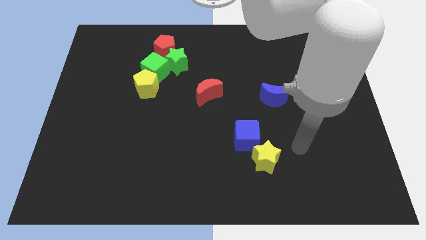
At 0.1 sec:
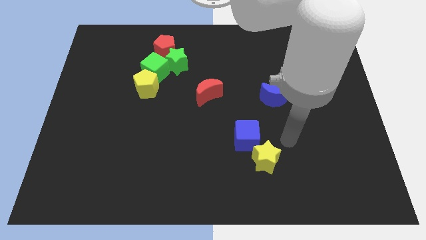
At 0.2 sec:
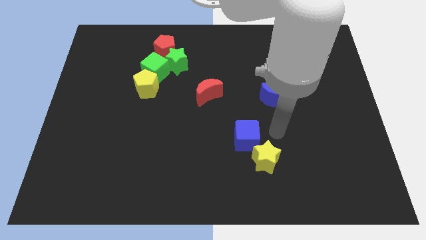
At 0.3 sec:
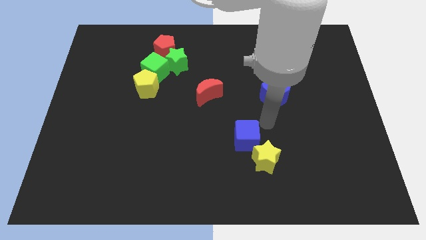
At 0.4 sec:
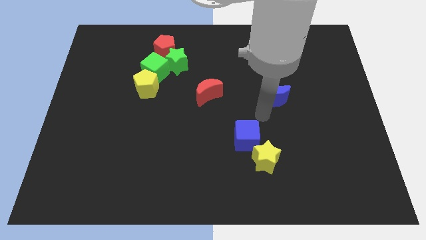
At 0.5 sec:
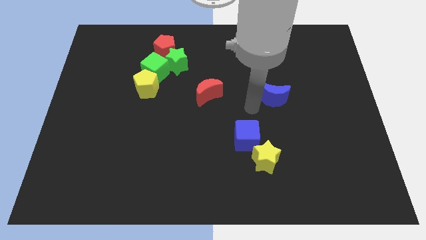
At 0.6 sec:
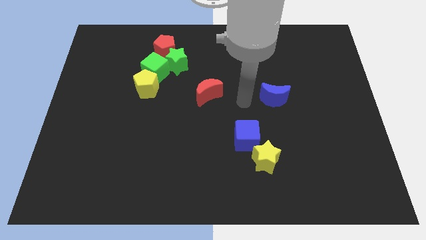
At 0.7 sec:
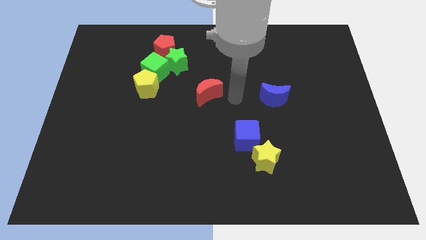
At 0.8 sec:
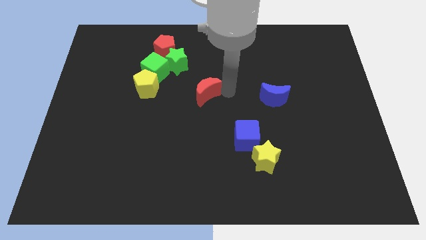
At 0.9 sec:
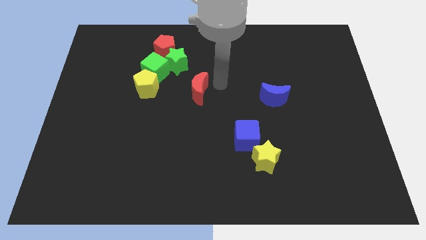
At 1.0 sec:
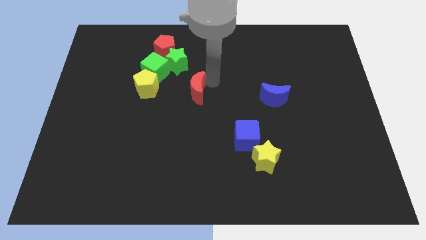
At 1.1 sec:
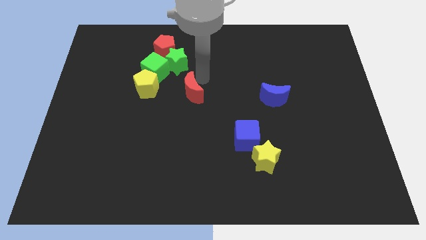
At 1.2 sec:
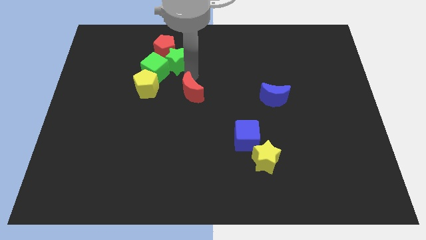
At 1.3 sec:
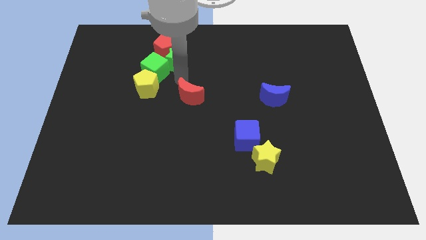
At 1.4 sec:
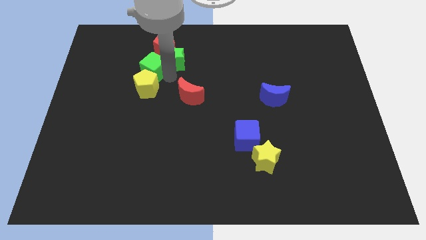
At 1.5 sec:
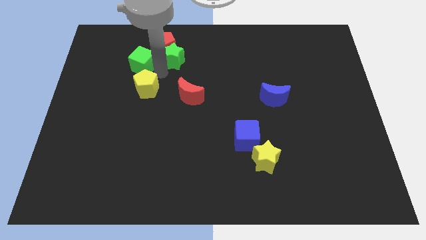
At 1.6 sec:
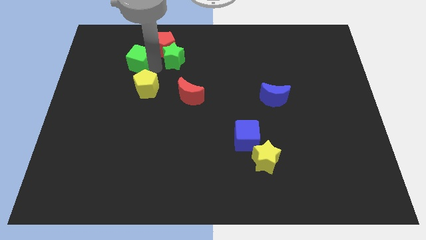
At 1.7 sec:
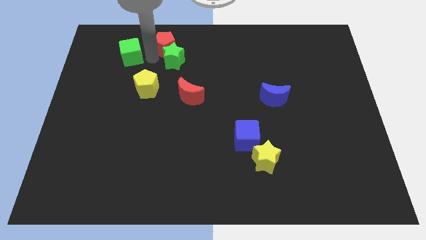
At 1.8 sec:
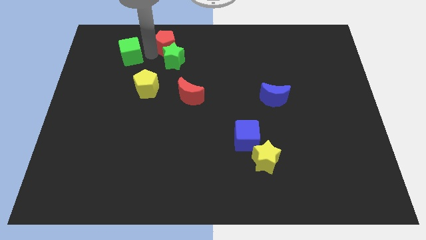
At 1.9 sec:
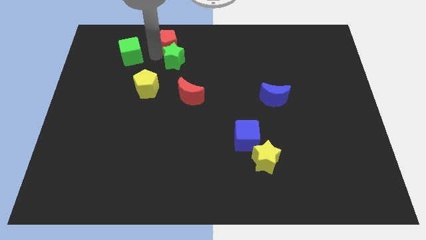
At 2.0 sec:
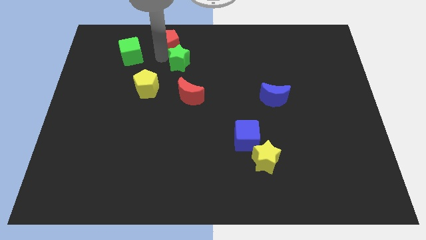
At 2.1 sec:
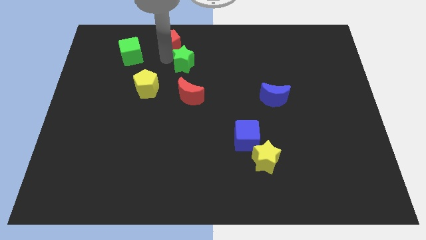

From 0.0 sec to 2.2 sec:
separate the green star from the green cube and red pentagon

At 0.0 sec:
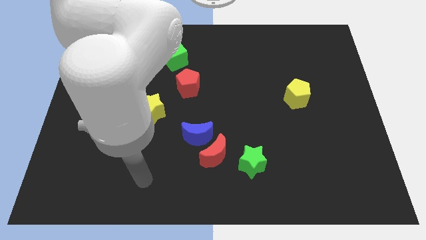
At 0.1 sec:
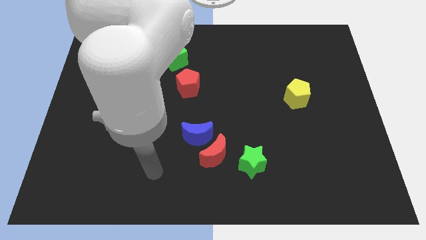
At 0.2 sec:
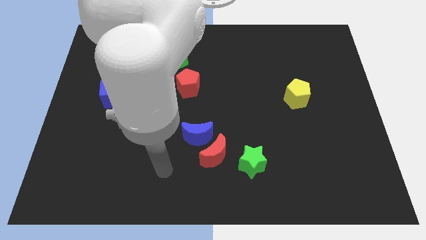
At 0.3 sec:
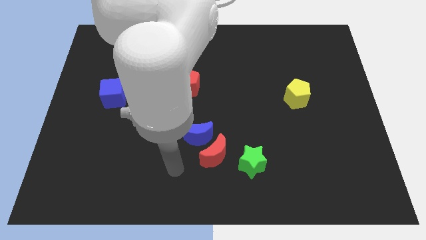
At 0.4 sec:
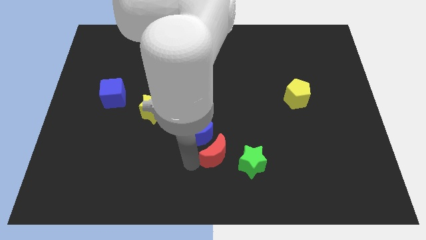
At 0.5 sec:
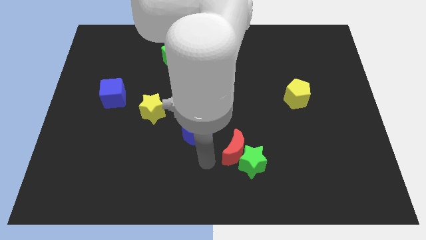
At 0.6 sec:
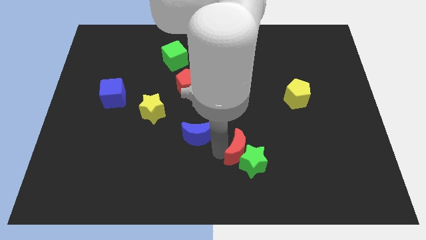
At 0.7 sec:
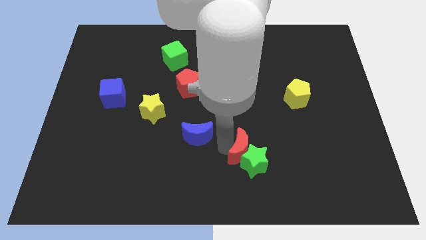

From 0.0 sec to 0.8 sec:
separate the blue moon from the red moon

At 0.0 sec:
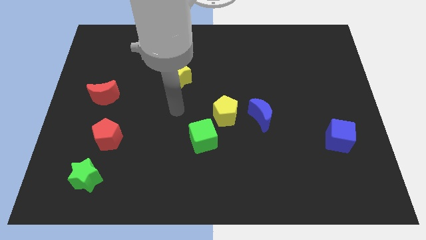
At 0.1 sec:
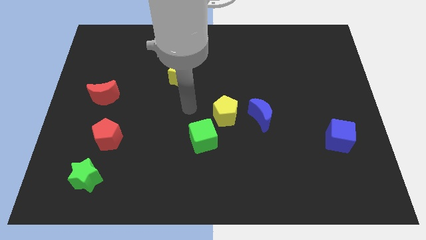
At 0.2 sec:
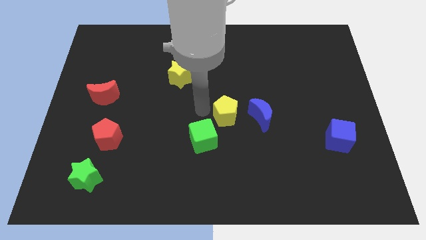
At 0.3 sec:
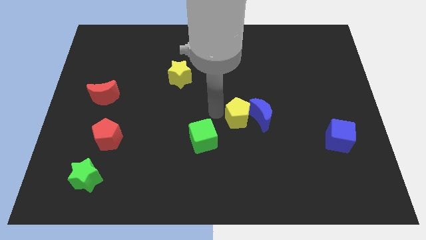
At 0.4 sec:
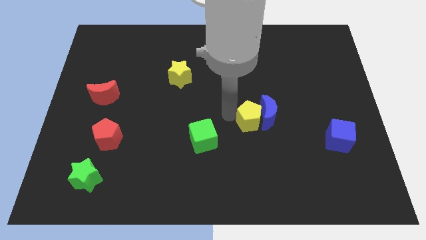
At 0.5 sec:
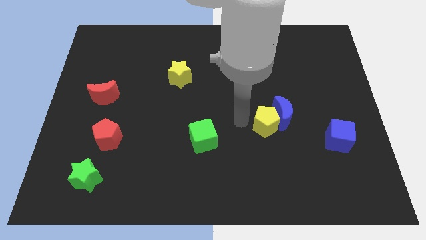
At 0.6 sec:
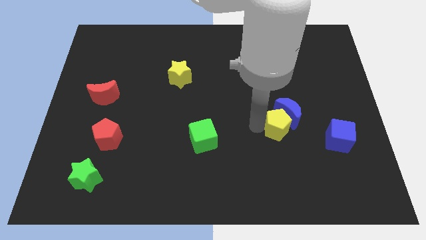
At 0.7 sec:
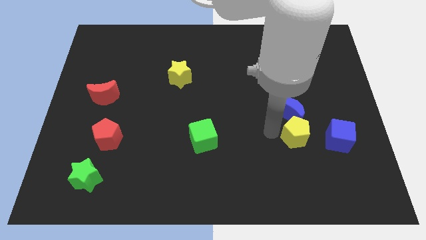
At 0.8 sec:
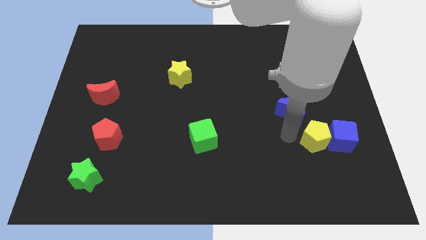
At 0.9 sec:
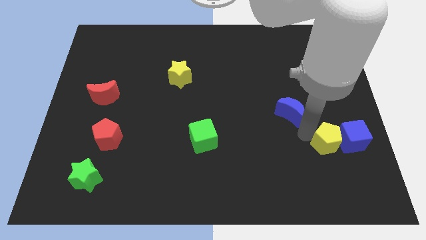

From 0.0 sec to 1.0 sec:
move the blue moon away from the yellow pentagon

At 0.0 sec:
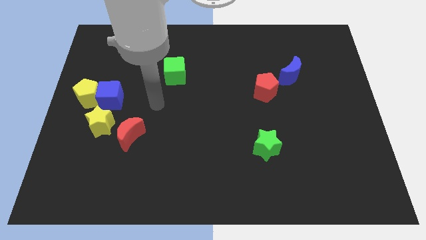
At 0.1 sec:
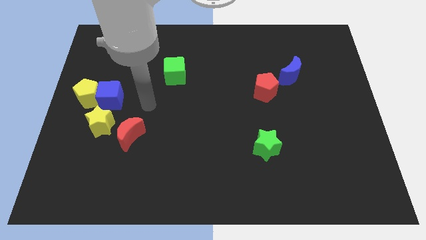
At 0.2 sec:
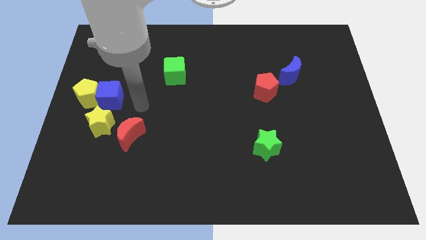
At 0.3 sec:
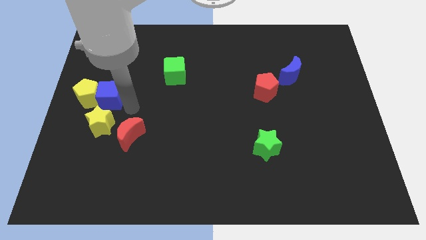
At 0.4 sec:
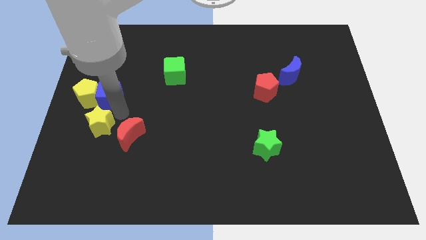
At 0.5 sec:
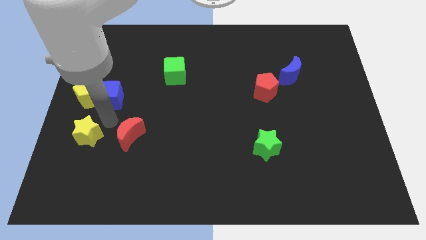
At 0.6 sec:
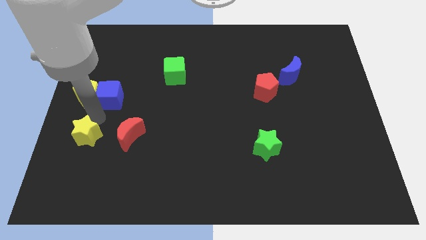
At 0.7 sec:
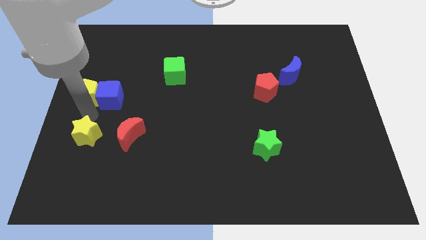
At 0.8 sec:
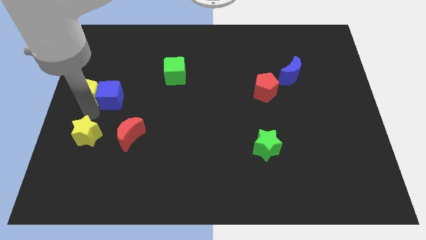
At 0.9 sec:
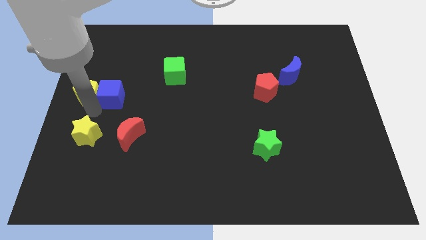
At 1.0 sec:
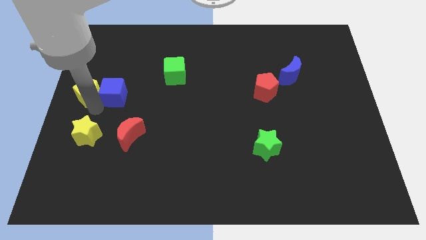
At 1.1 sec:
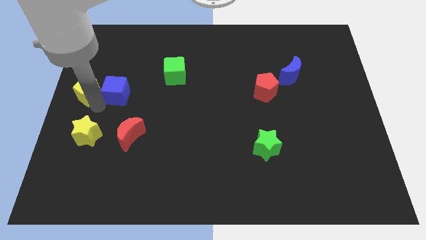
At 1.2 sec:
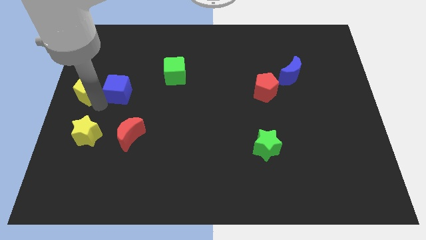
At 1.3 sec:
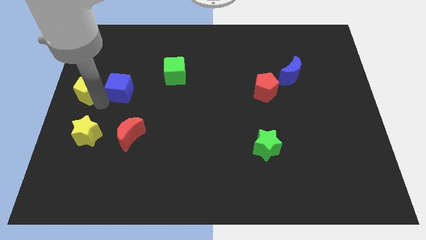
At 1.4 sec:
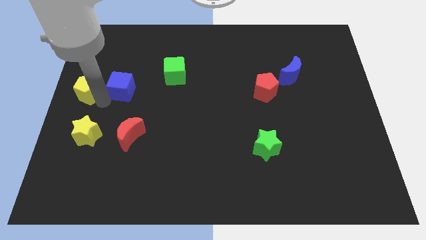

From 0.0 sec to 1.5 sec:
pull the blue cube apart from the yellow pentagon and yellow star

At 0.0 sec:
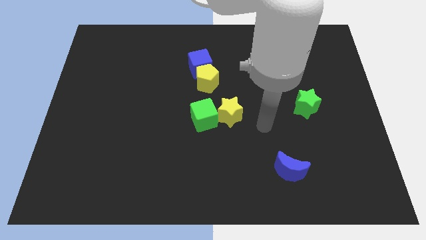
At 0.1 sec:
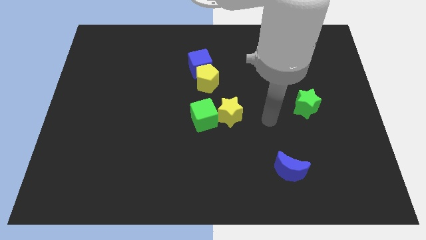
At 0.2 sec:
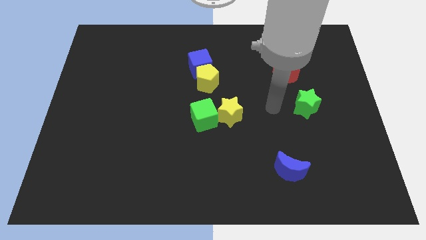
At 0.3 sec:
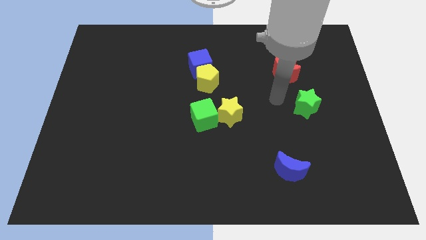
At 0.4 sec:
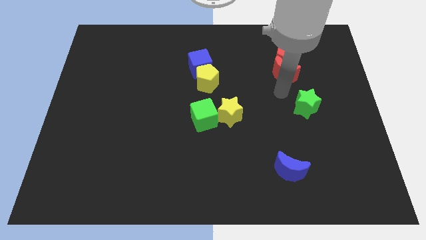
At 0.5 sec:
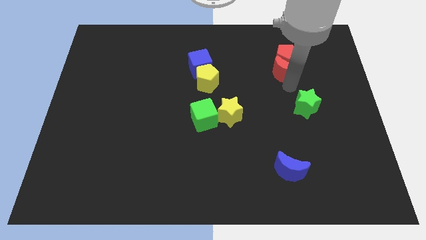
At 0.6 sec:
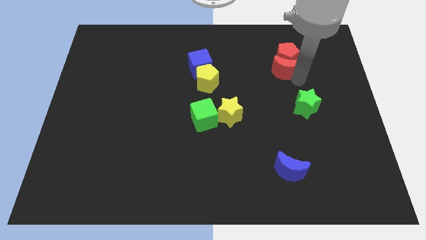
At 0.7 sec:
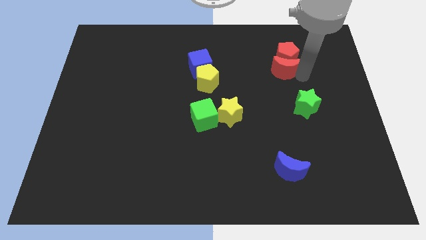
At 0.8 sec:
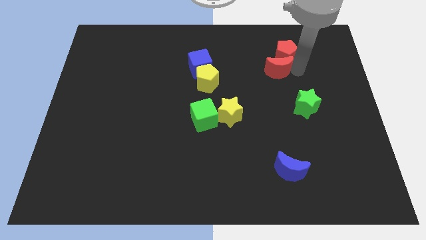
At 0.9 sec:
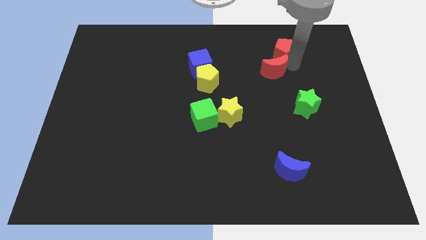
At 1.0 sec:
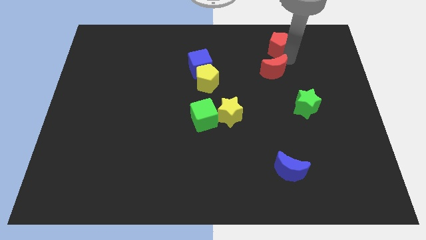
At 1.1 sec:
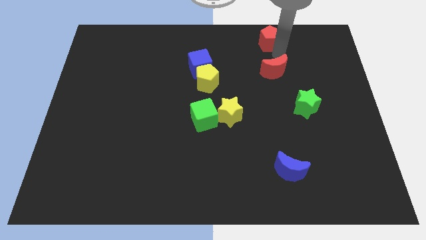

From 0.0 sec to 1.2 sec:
separate the red moon from the red pentagon

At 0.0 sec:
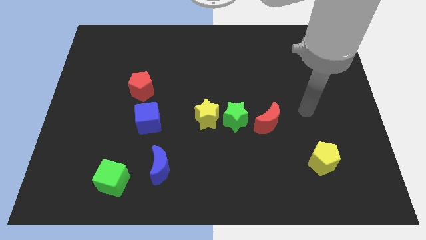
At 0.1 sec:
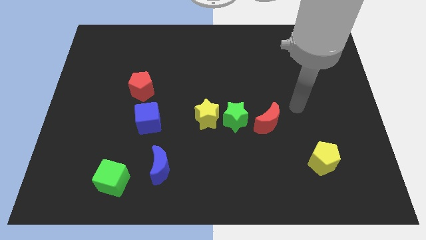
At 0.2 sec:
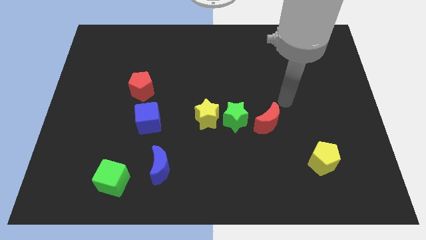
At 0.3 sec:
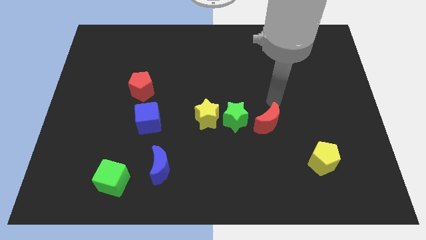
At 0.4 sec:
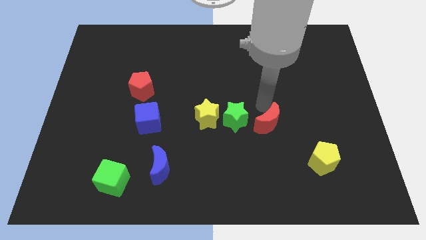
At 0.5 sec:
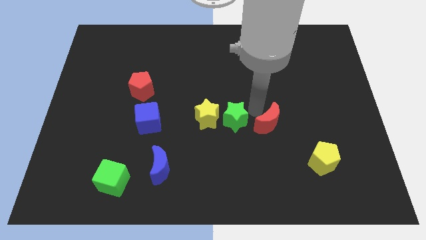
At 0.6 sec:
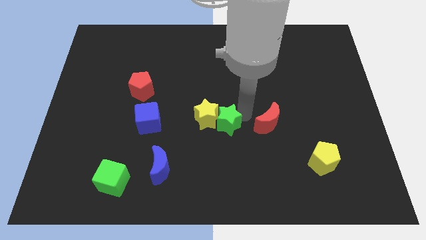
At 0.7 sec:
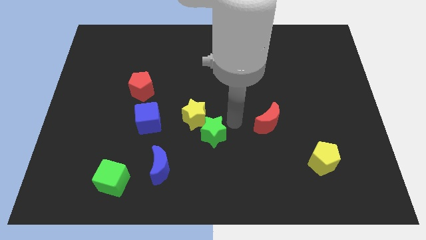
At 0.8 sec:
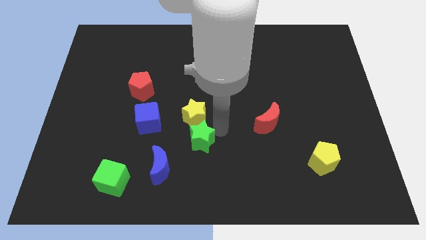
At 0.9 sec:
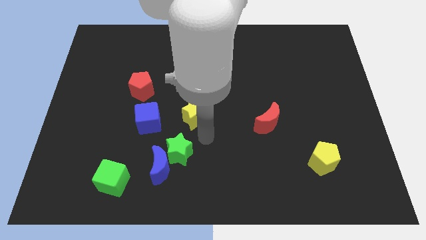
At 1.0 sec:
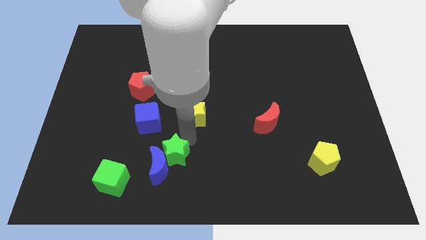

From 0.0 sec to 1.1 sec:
pull the yellow star apart from the green star

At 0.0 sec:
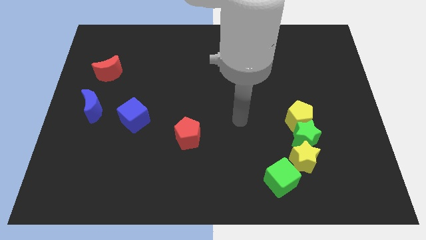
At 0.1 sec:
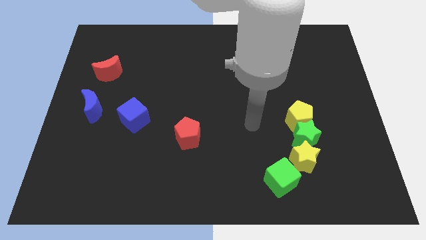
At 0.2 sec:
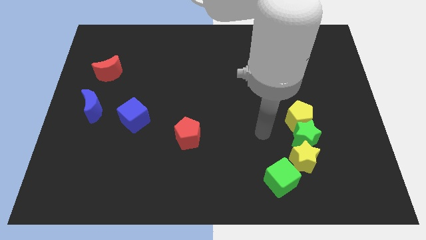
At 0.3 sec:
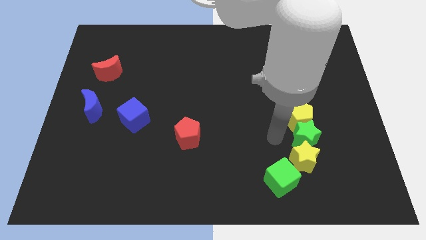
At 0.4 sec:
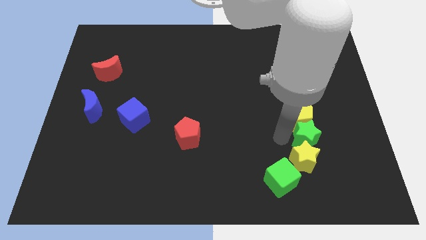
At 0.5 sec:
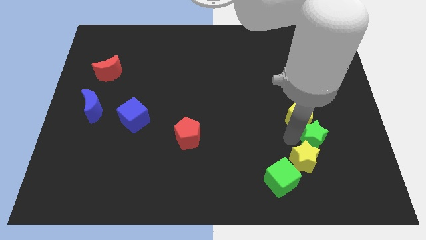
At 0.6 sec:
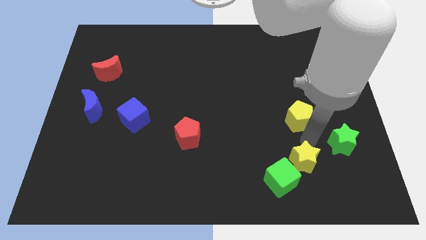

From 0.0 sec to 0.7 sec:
pull the yellow pentagon apart from the green star

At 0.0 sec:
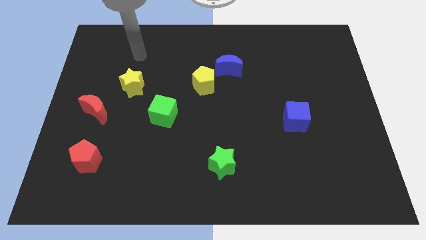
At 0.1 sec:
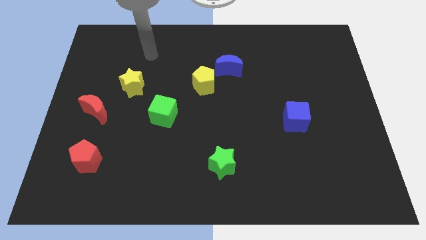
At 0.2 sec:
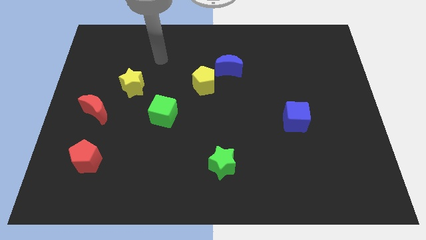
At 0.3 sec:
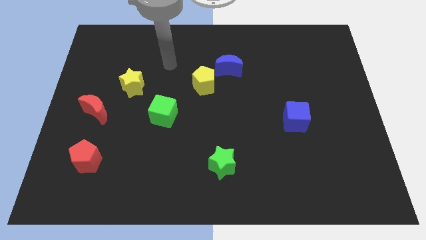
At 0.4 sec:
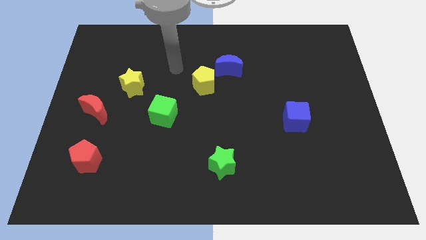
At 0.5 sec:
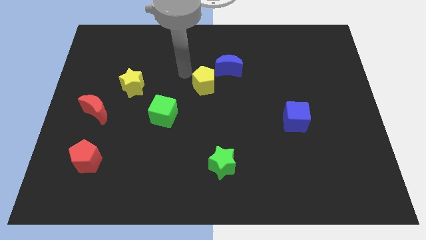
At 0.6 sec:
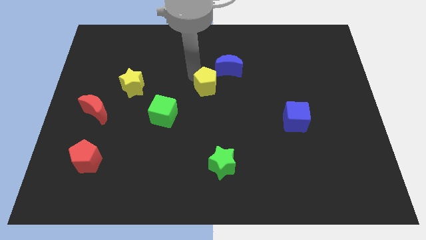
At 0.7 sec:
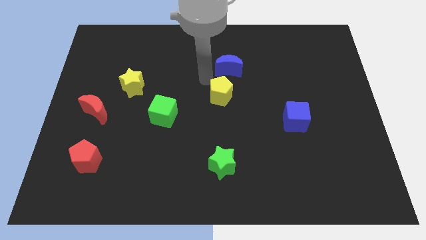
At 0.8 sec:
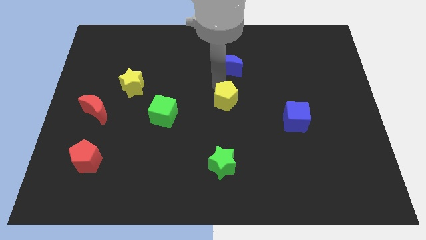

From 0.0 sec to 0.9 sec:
separate the blue moon from the yellow pentagon
